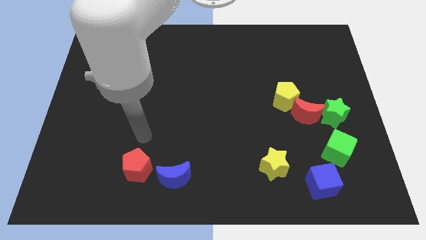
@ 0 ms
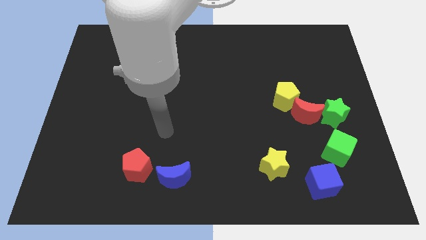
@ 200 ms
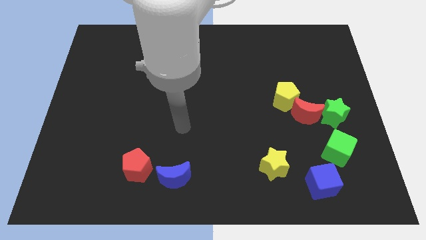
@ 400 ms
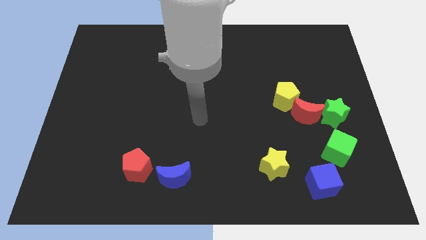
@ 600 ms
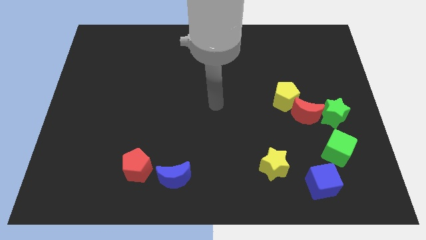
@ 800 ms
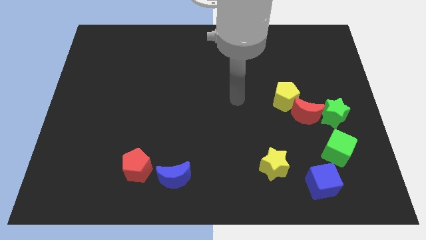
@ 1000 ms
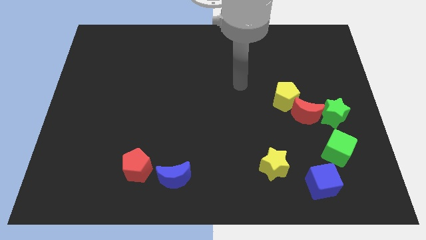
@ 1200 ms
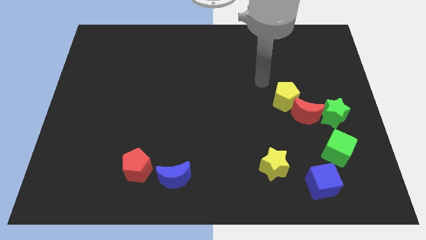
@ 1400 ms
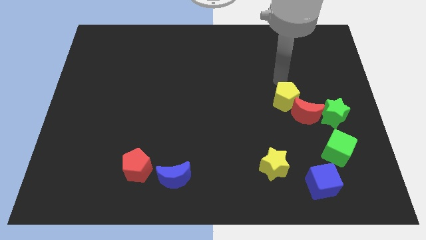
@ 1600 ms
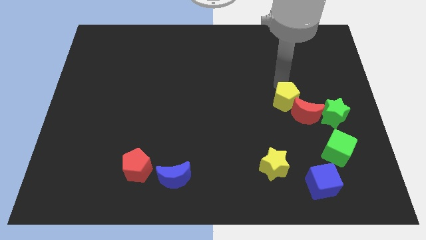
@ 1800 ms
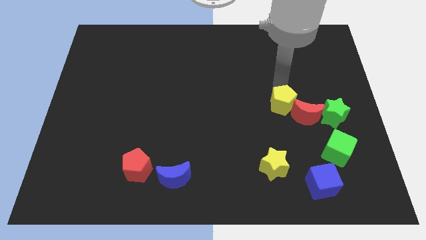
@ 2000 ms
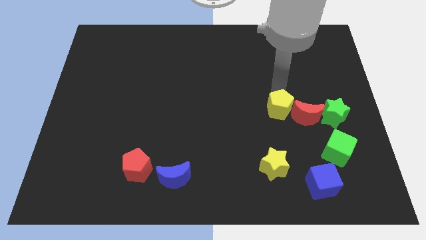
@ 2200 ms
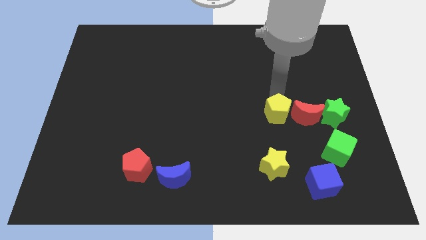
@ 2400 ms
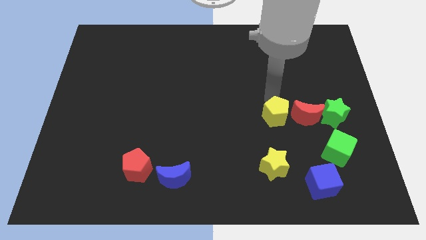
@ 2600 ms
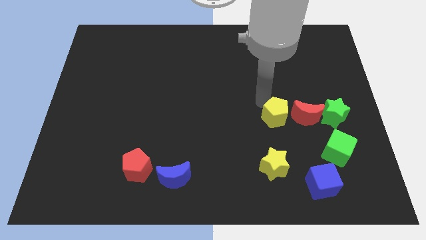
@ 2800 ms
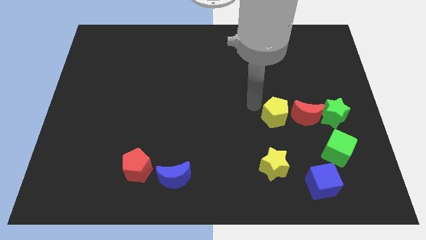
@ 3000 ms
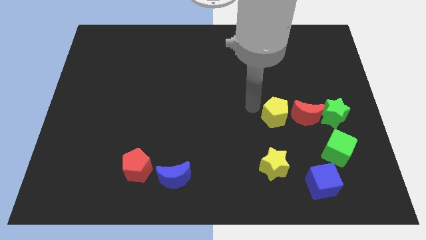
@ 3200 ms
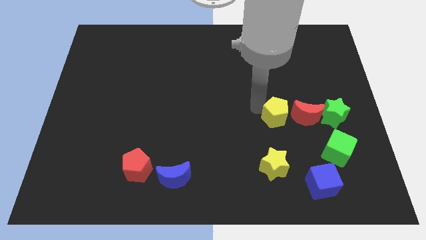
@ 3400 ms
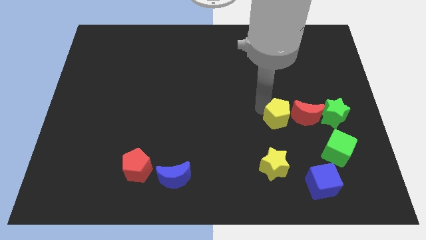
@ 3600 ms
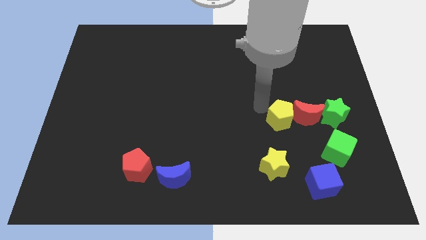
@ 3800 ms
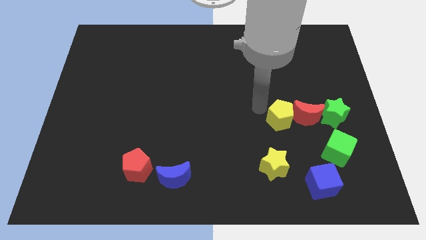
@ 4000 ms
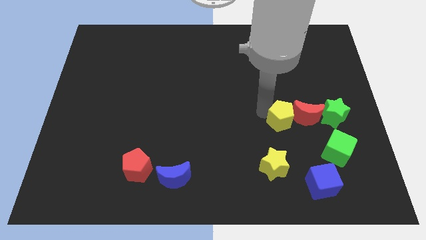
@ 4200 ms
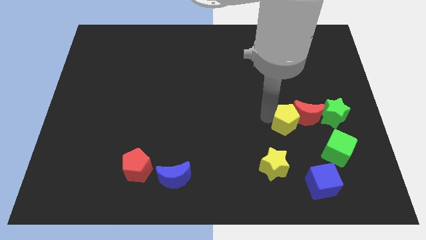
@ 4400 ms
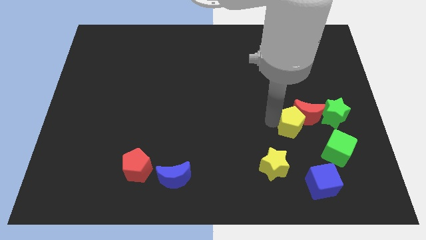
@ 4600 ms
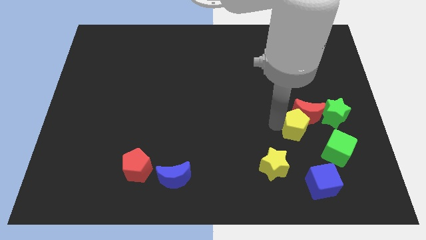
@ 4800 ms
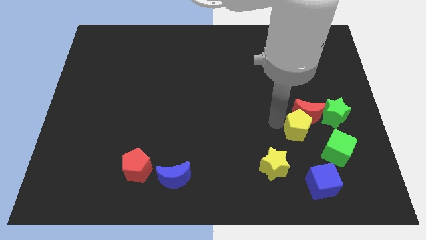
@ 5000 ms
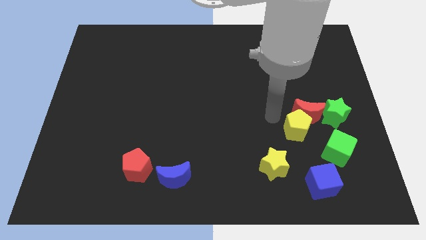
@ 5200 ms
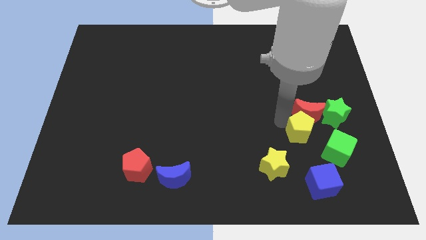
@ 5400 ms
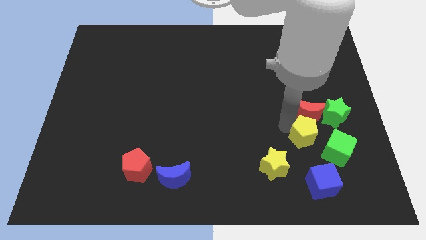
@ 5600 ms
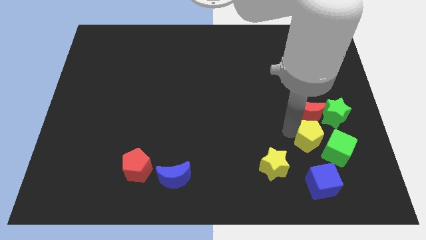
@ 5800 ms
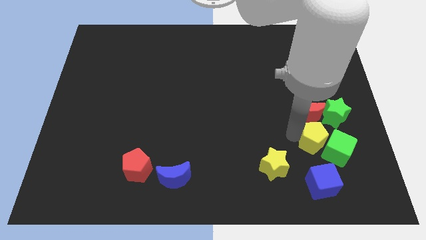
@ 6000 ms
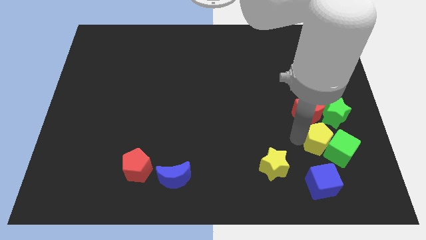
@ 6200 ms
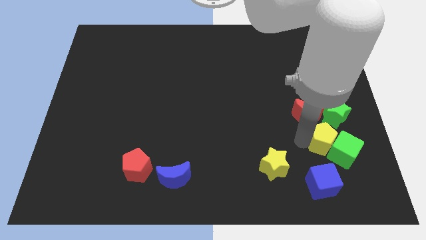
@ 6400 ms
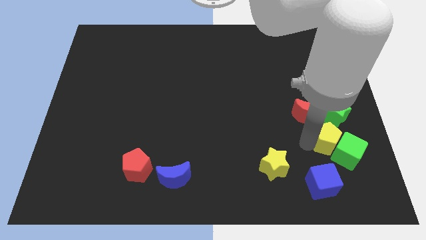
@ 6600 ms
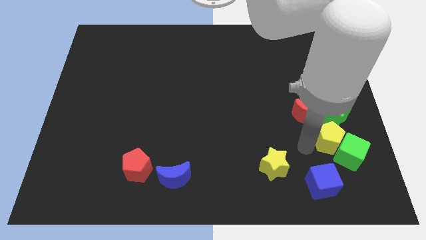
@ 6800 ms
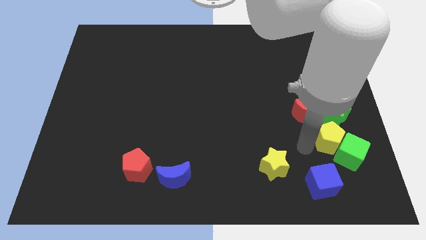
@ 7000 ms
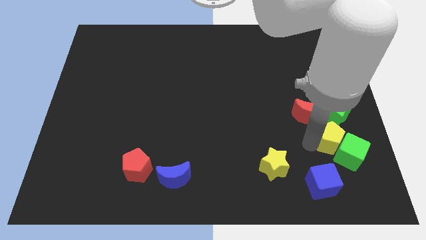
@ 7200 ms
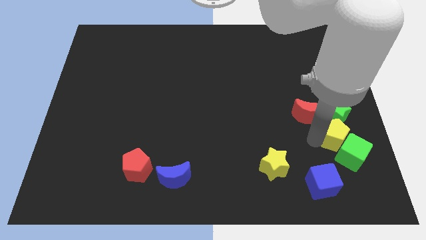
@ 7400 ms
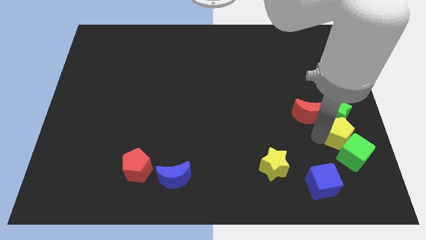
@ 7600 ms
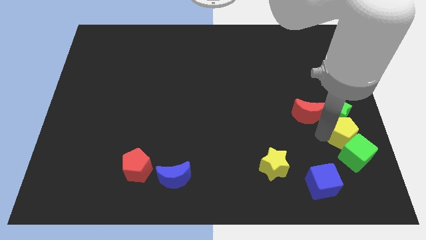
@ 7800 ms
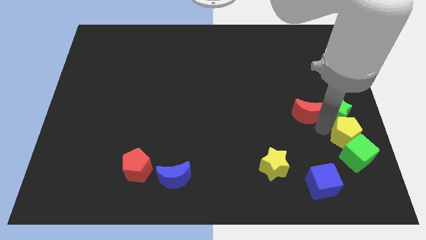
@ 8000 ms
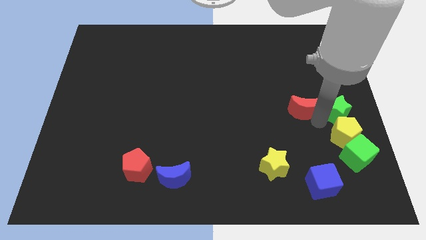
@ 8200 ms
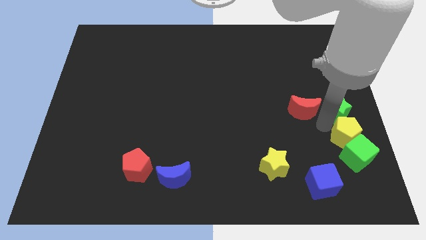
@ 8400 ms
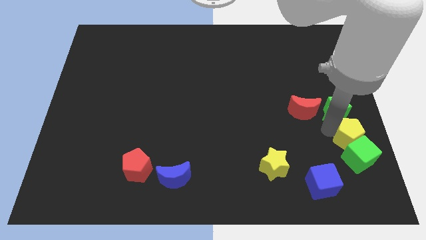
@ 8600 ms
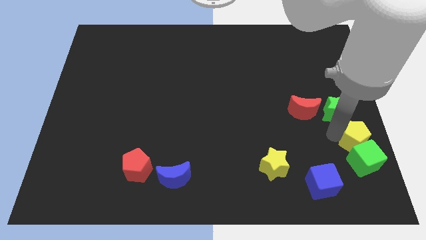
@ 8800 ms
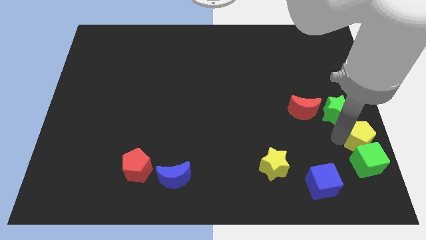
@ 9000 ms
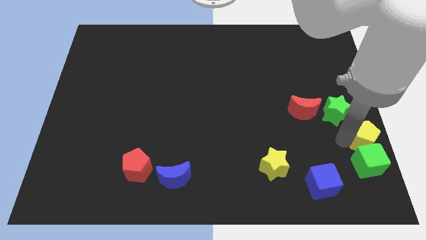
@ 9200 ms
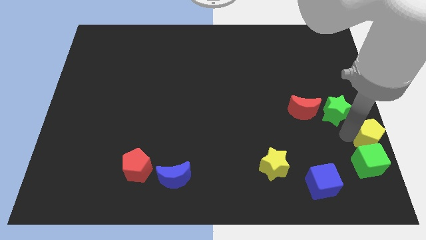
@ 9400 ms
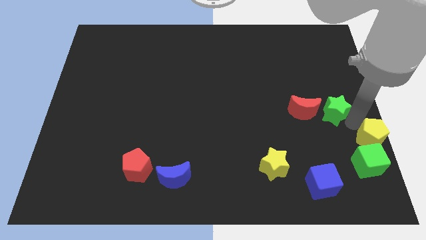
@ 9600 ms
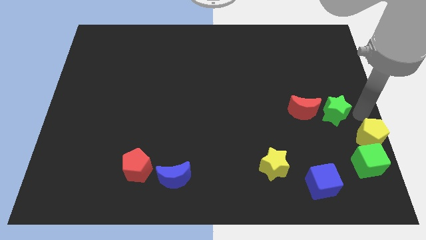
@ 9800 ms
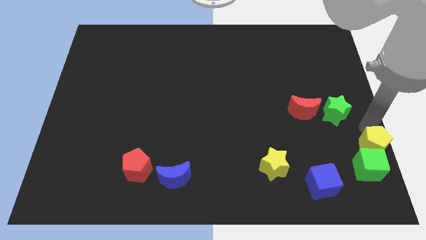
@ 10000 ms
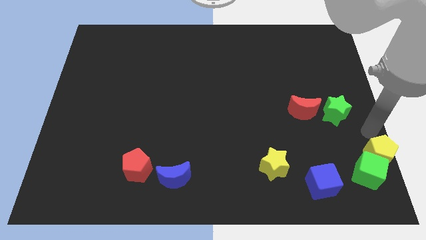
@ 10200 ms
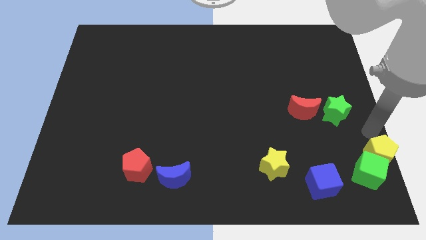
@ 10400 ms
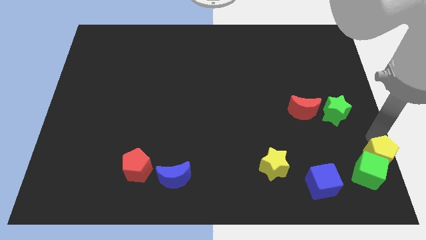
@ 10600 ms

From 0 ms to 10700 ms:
put the yellow pentagon to the bottom right

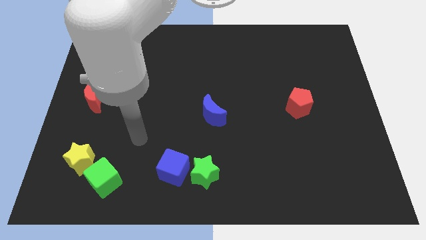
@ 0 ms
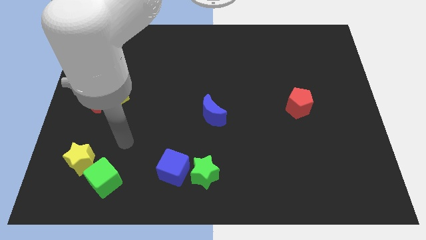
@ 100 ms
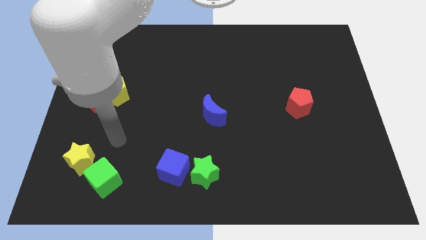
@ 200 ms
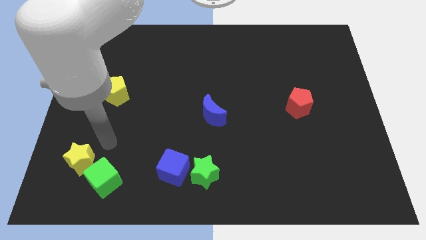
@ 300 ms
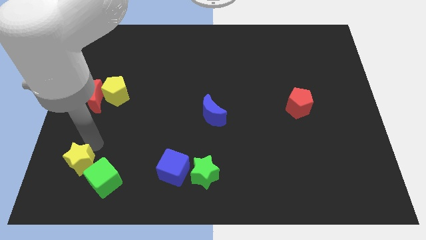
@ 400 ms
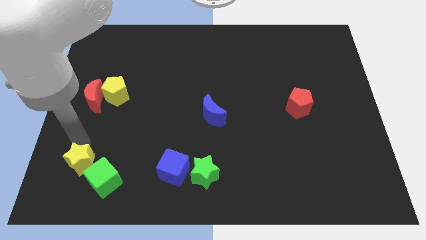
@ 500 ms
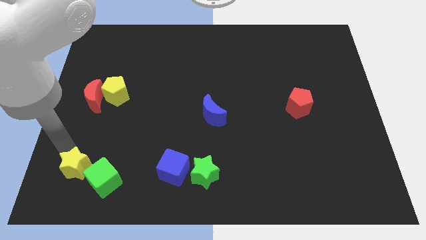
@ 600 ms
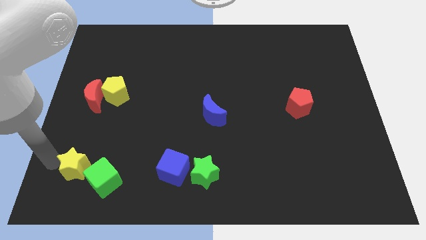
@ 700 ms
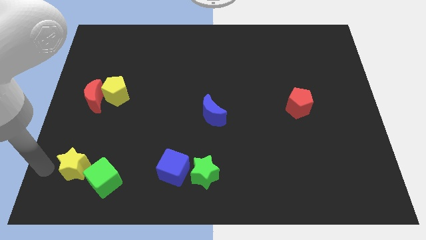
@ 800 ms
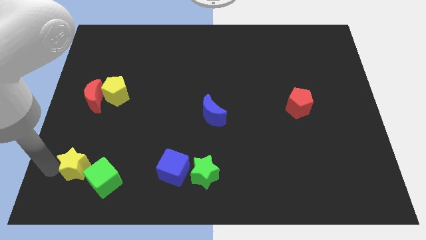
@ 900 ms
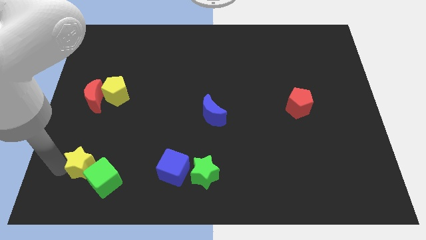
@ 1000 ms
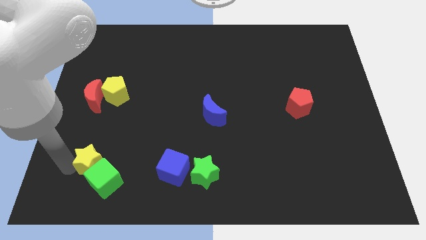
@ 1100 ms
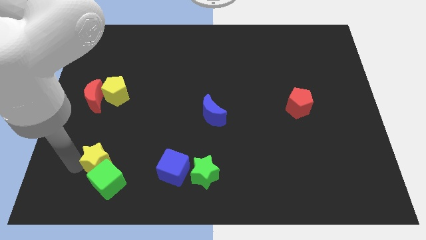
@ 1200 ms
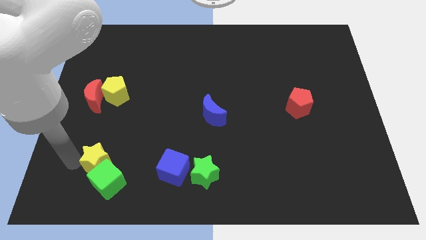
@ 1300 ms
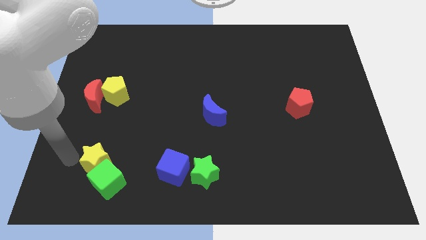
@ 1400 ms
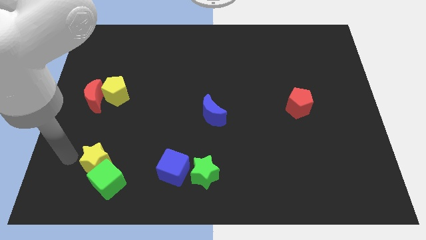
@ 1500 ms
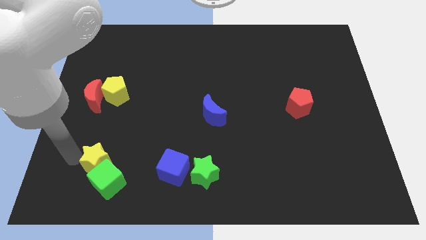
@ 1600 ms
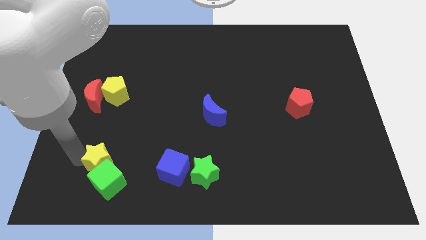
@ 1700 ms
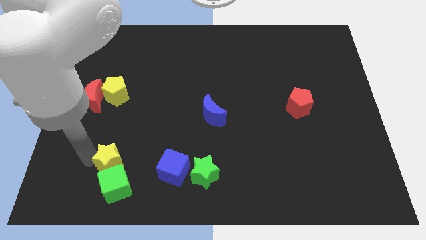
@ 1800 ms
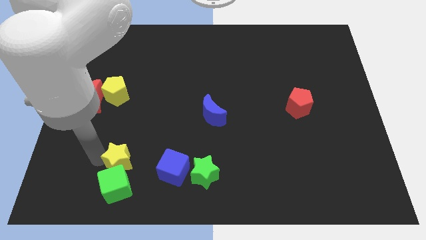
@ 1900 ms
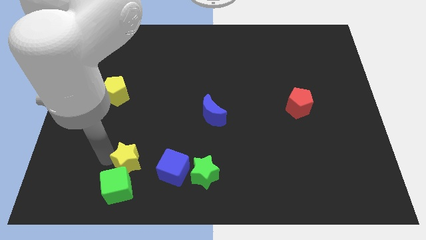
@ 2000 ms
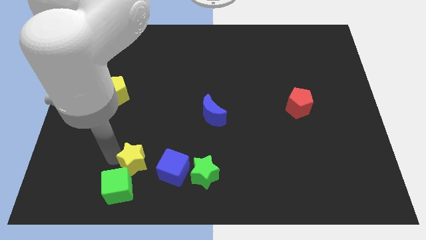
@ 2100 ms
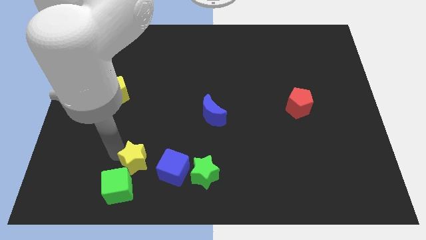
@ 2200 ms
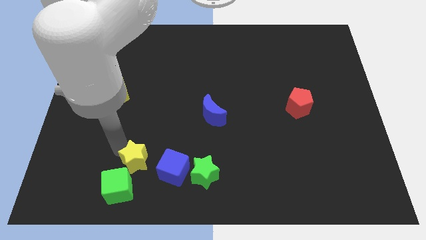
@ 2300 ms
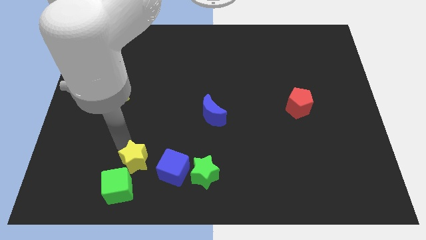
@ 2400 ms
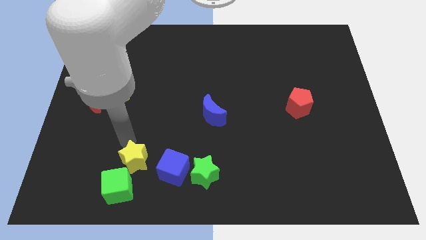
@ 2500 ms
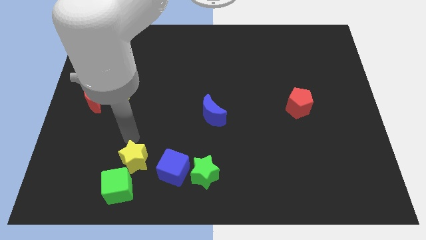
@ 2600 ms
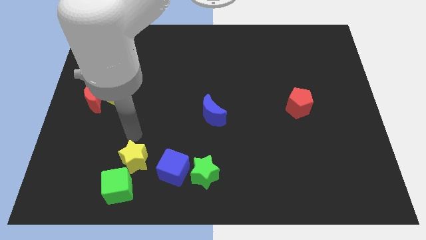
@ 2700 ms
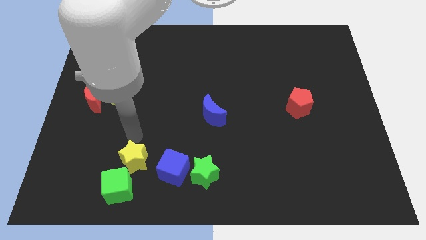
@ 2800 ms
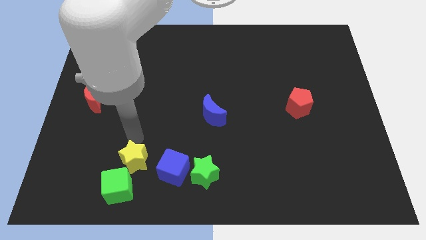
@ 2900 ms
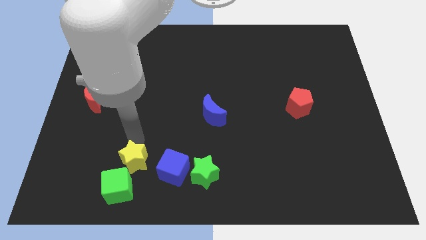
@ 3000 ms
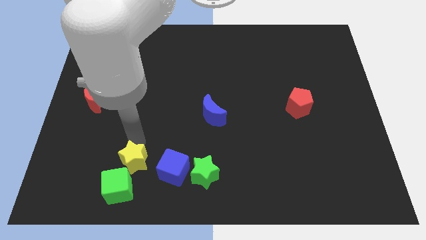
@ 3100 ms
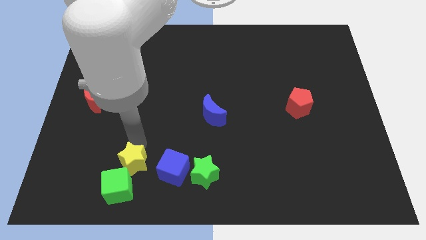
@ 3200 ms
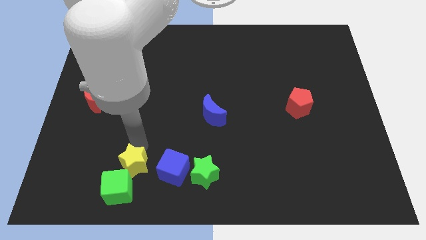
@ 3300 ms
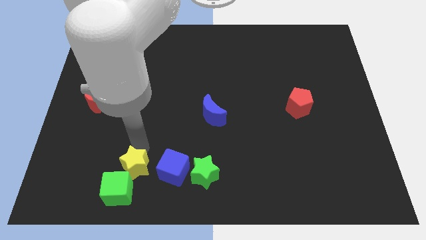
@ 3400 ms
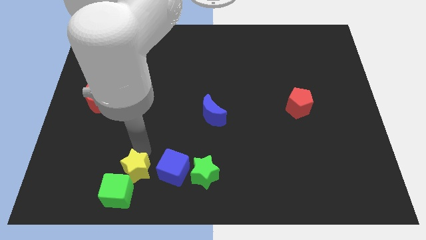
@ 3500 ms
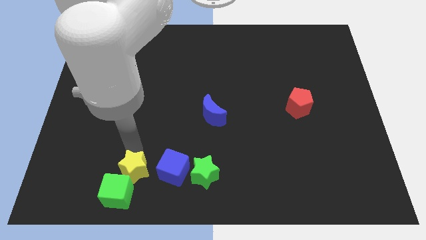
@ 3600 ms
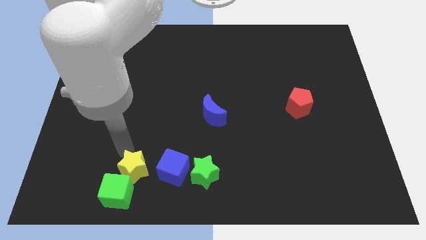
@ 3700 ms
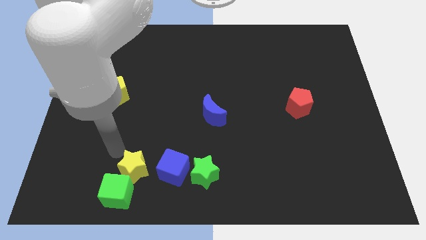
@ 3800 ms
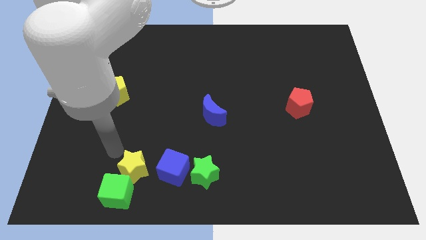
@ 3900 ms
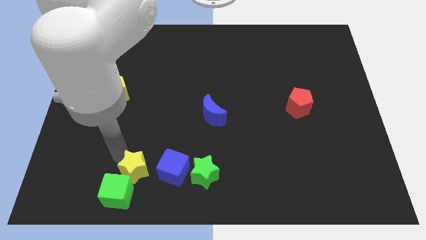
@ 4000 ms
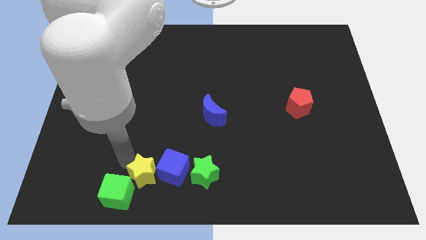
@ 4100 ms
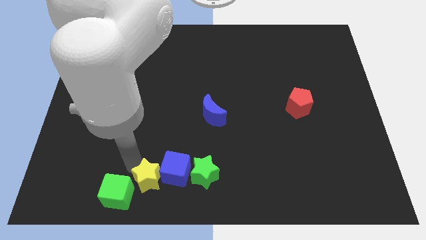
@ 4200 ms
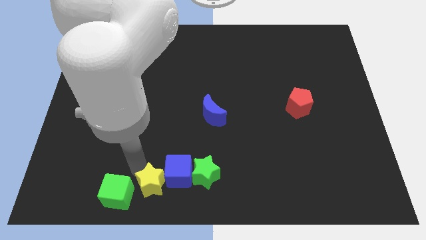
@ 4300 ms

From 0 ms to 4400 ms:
slide the yellow star to the bottom side
